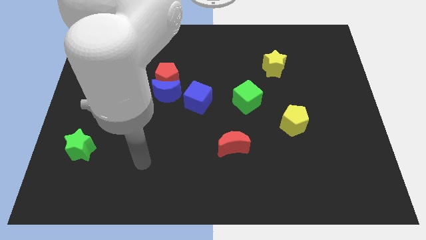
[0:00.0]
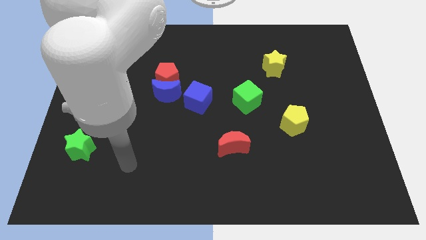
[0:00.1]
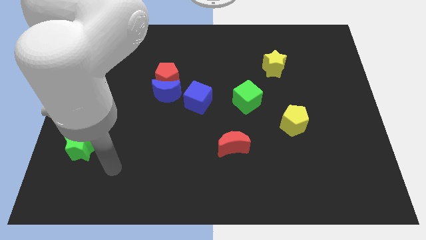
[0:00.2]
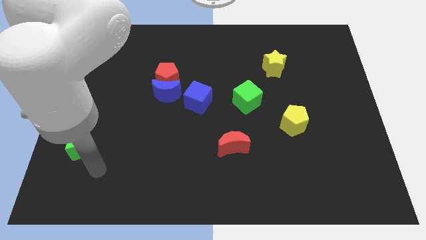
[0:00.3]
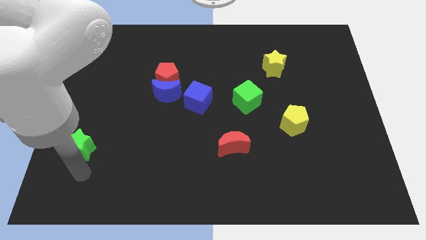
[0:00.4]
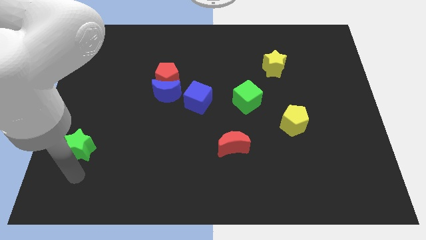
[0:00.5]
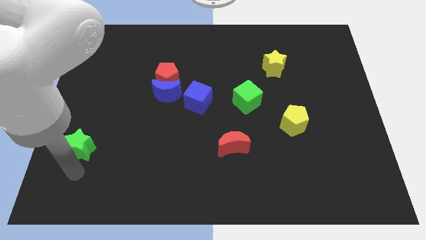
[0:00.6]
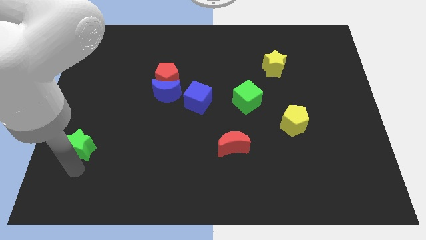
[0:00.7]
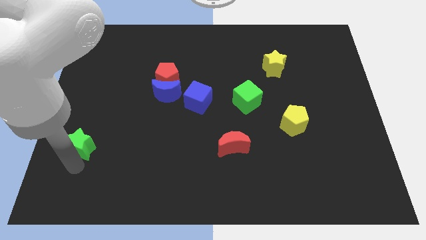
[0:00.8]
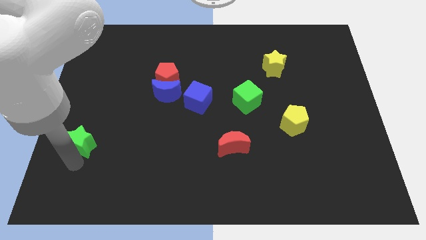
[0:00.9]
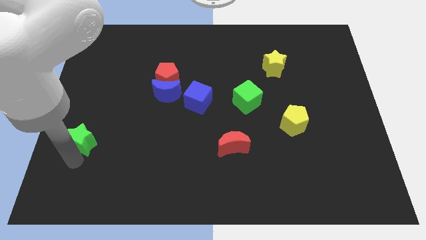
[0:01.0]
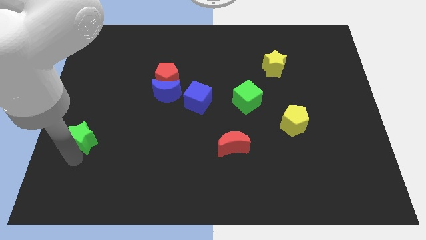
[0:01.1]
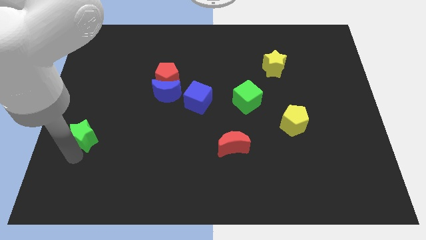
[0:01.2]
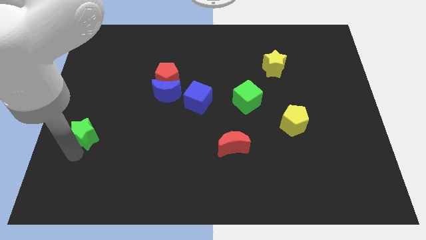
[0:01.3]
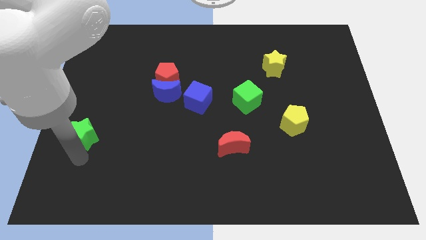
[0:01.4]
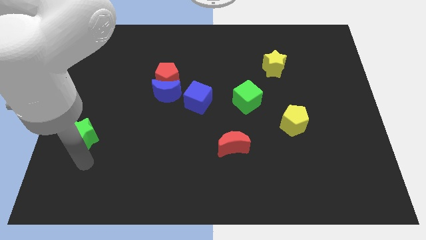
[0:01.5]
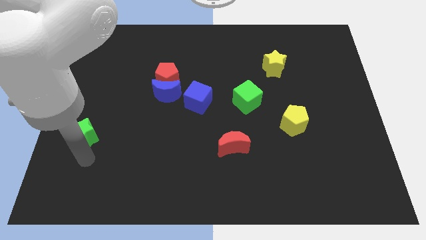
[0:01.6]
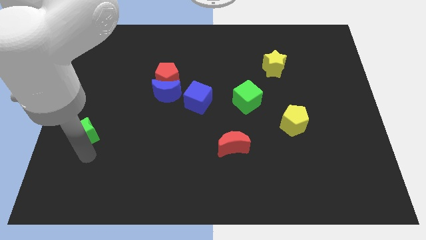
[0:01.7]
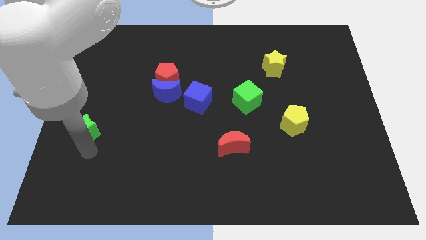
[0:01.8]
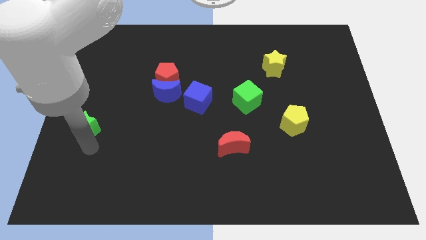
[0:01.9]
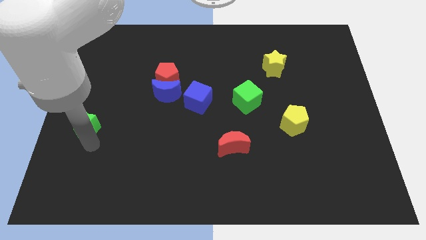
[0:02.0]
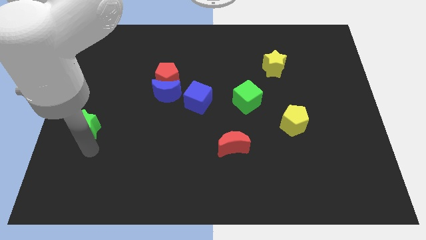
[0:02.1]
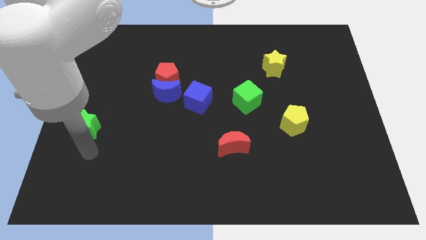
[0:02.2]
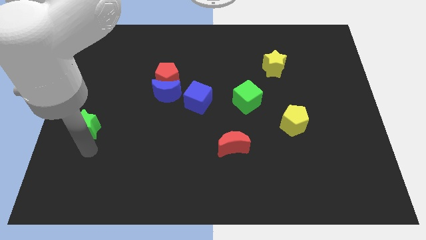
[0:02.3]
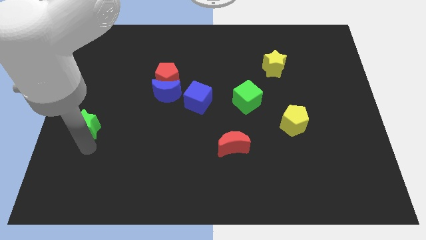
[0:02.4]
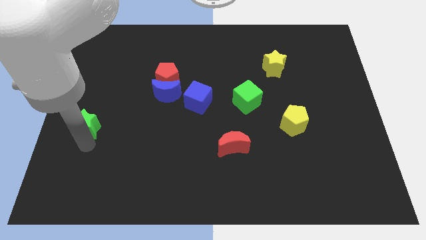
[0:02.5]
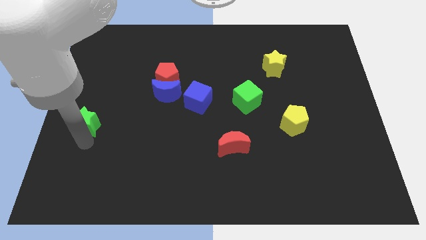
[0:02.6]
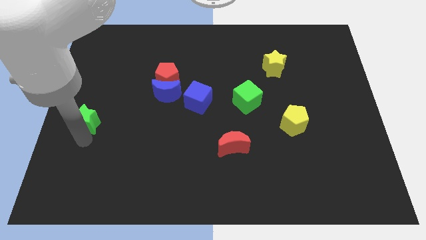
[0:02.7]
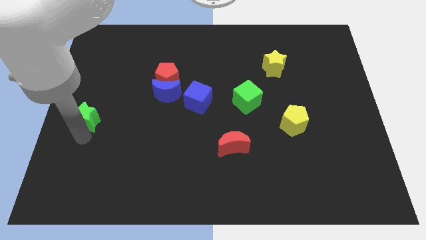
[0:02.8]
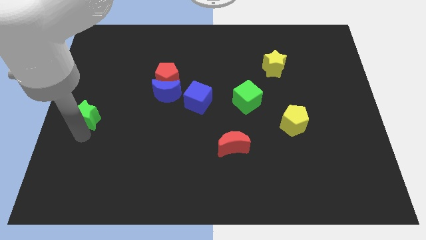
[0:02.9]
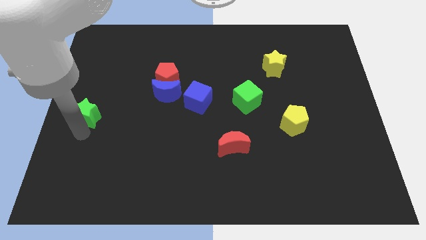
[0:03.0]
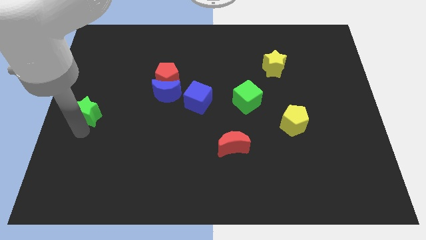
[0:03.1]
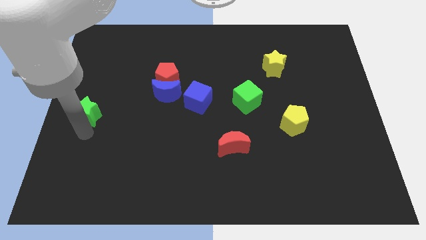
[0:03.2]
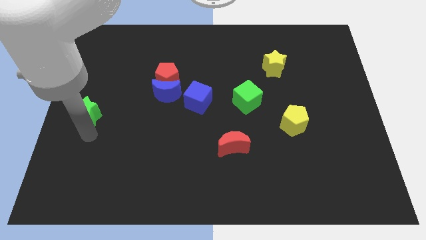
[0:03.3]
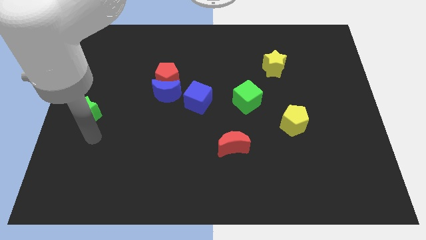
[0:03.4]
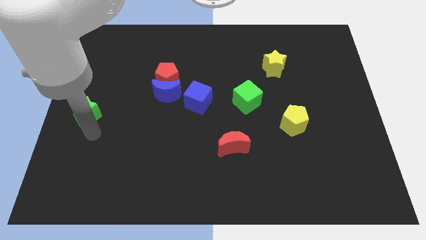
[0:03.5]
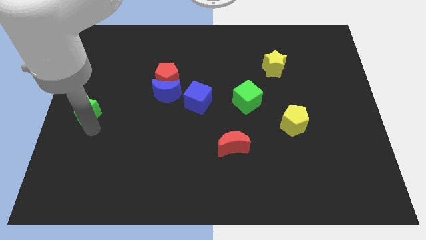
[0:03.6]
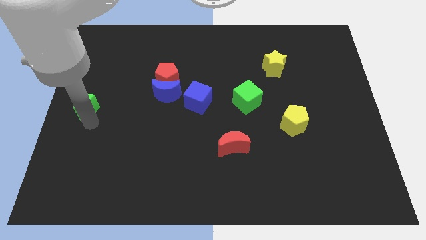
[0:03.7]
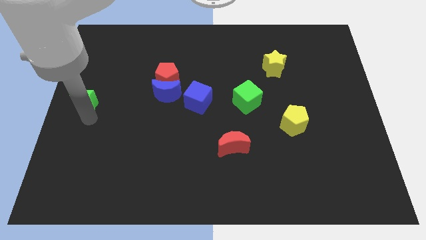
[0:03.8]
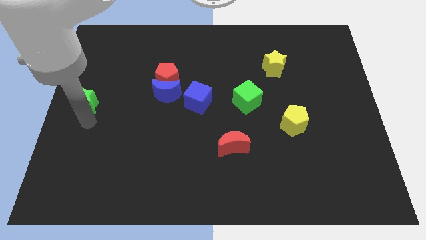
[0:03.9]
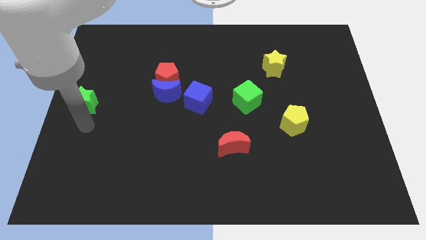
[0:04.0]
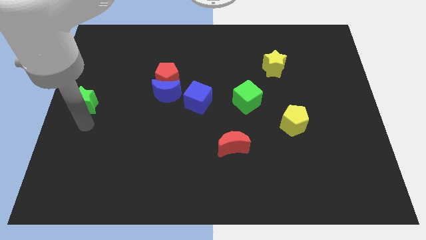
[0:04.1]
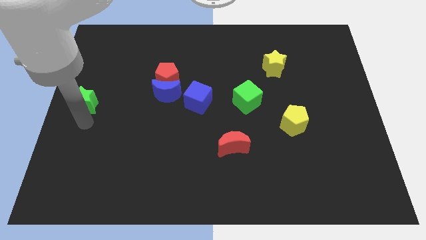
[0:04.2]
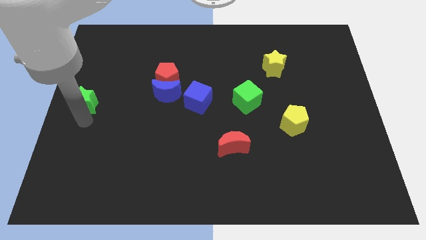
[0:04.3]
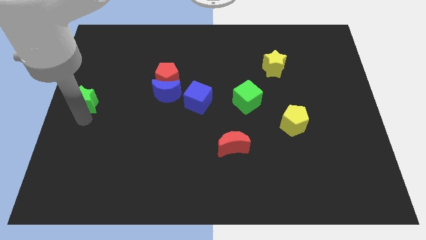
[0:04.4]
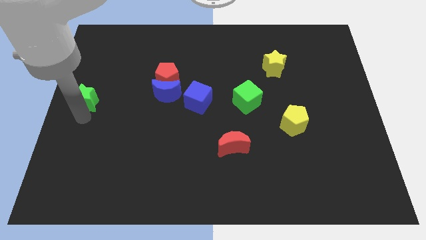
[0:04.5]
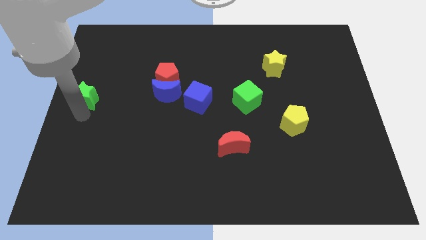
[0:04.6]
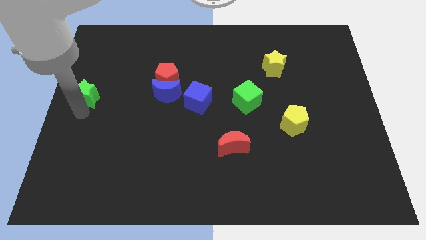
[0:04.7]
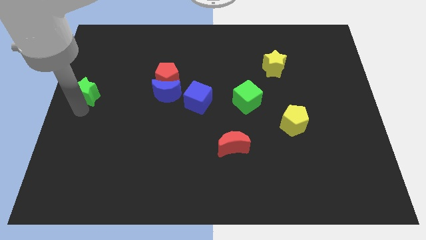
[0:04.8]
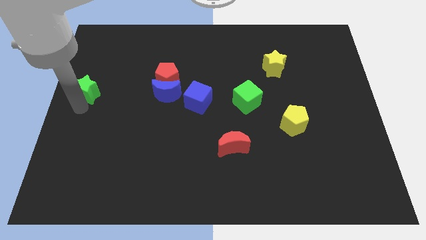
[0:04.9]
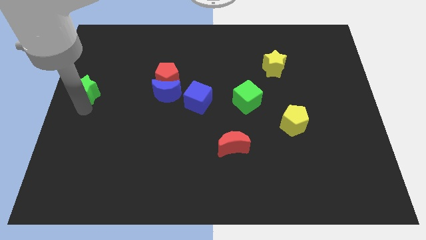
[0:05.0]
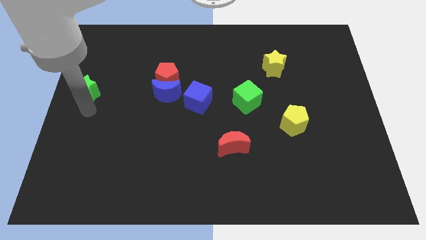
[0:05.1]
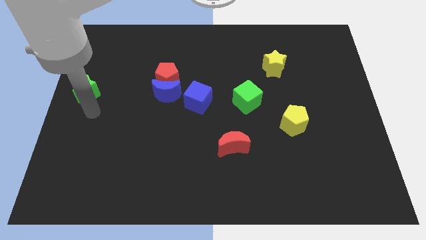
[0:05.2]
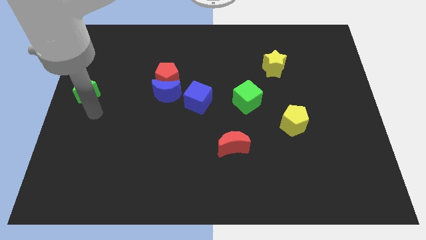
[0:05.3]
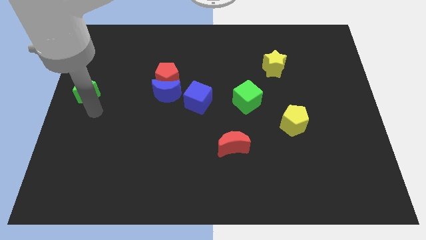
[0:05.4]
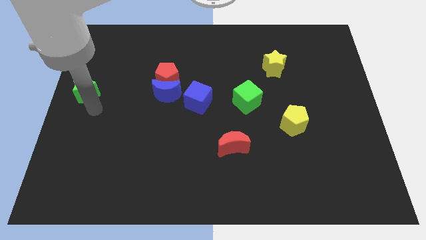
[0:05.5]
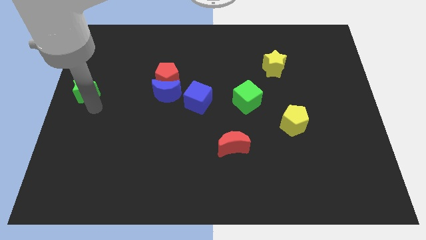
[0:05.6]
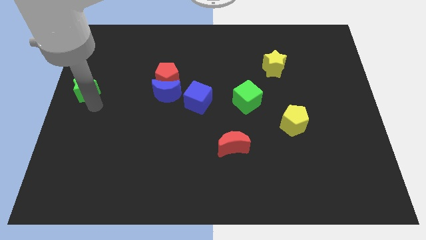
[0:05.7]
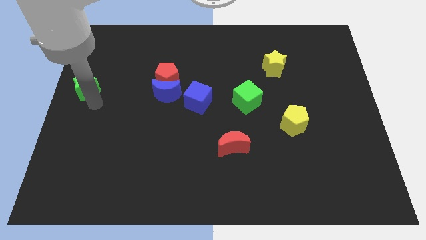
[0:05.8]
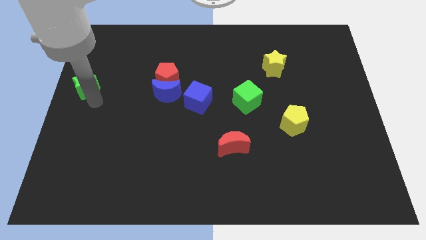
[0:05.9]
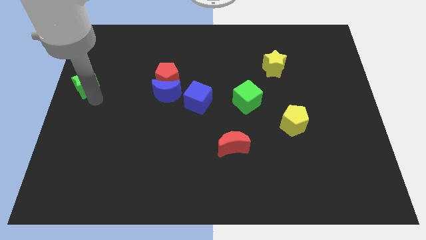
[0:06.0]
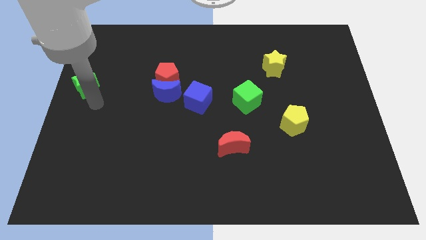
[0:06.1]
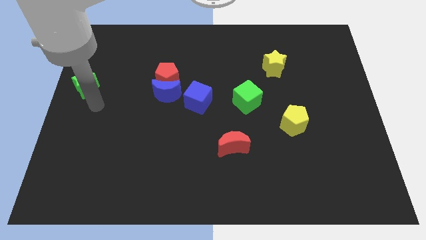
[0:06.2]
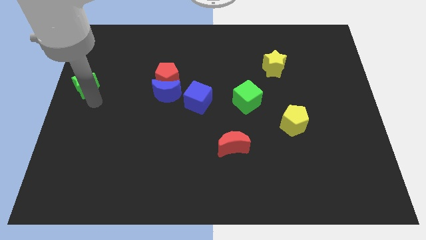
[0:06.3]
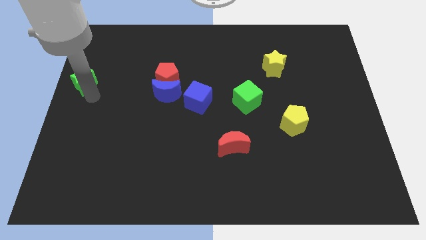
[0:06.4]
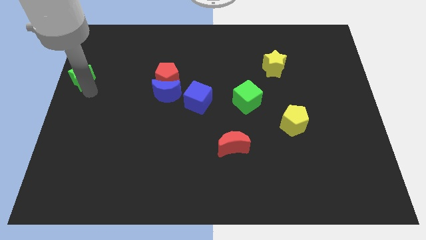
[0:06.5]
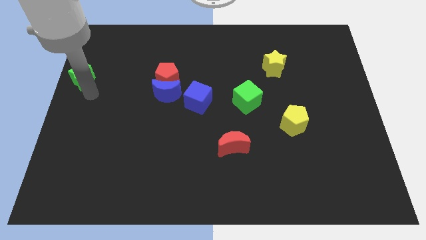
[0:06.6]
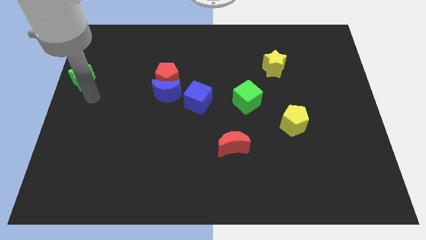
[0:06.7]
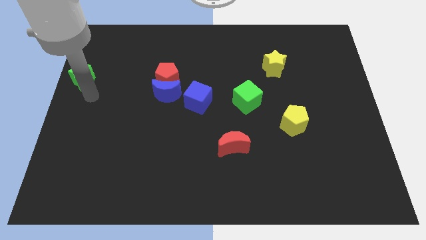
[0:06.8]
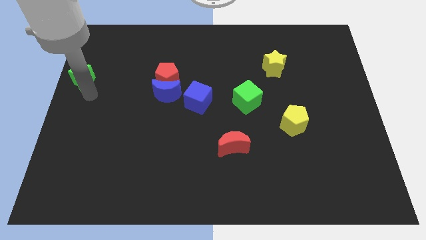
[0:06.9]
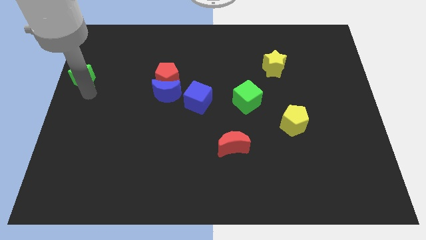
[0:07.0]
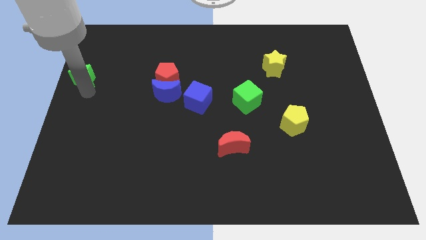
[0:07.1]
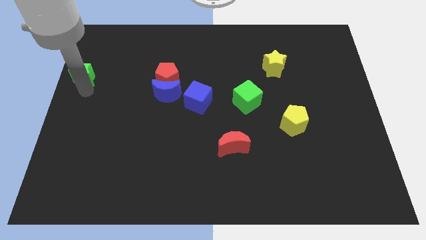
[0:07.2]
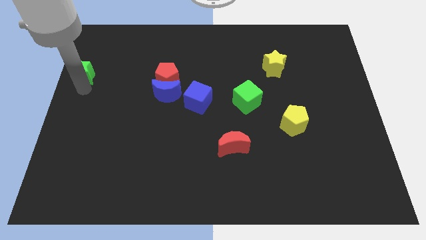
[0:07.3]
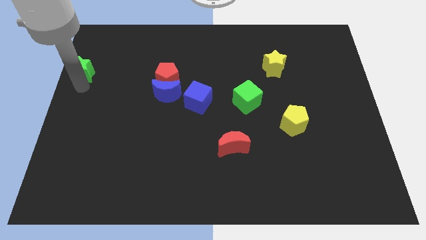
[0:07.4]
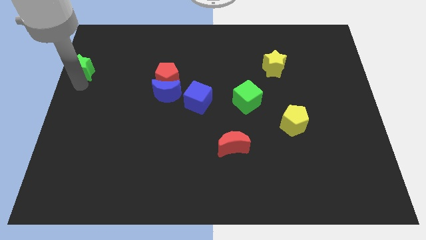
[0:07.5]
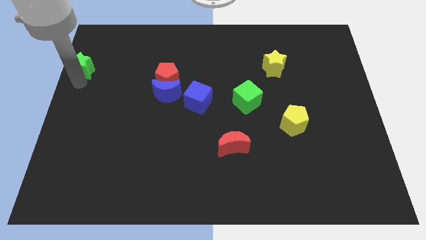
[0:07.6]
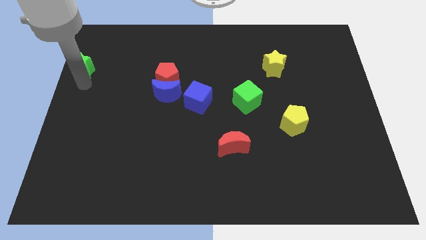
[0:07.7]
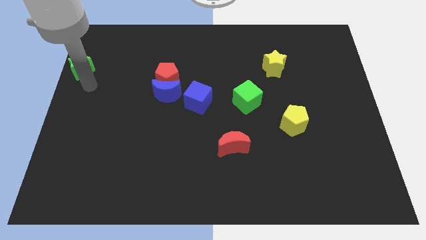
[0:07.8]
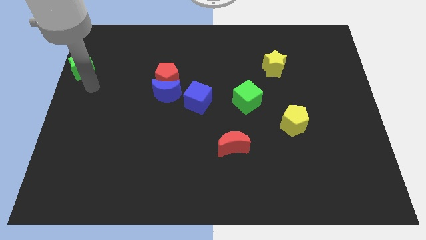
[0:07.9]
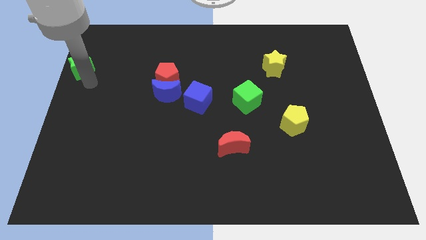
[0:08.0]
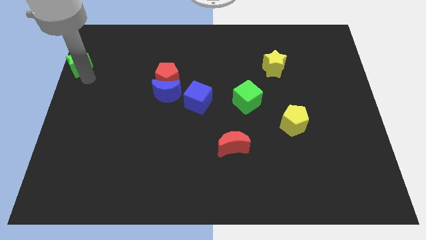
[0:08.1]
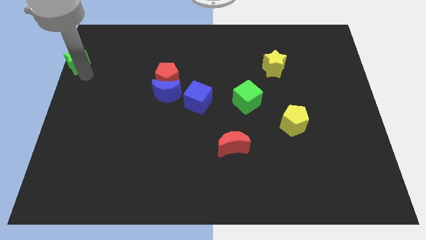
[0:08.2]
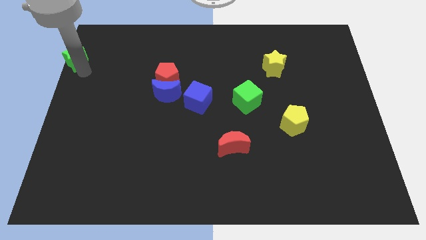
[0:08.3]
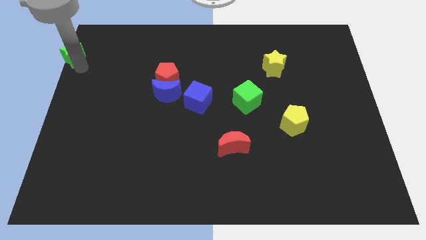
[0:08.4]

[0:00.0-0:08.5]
slide the green star to the top left
